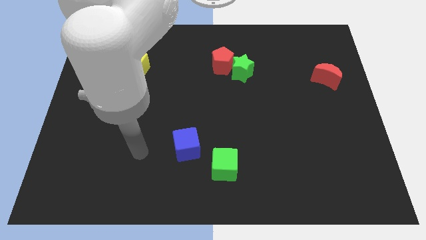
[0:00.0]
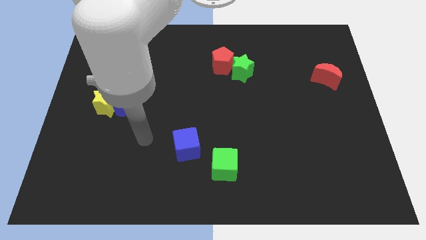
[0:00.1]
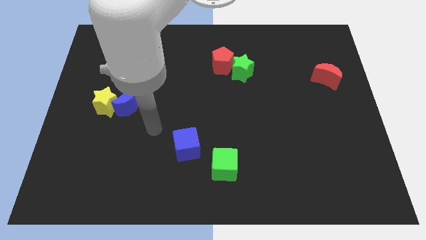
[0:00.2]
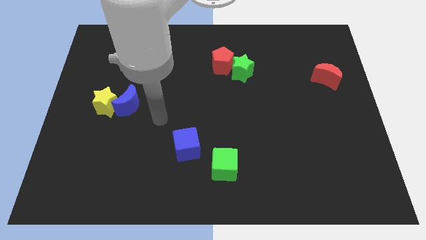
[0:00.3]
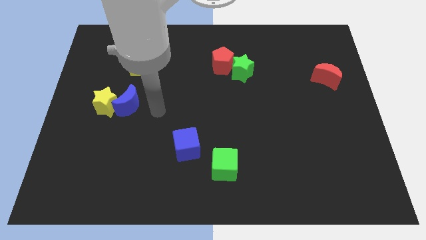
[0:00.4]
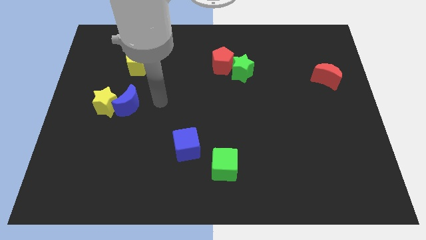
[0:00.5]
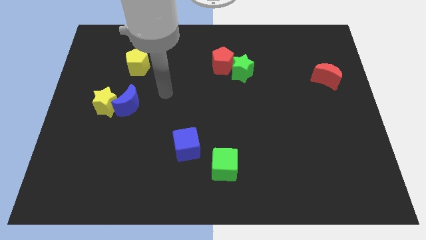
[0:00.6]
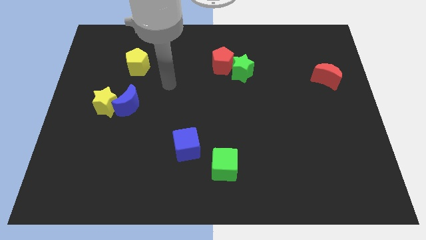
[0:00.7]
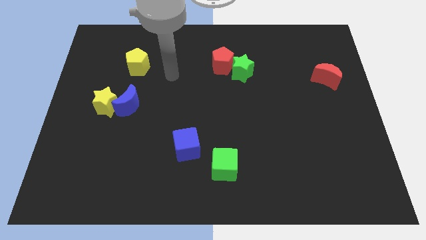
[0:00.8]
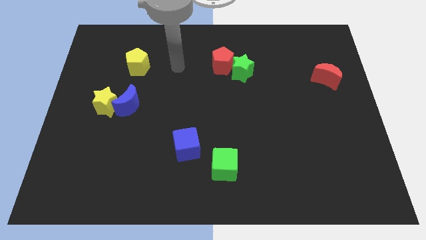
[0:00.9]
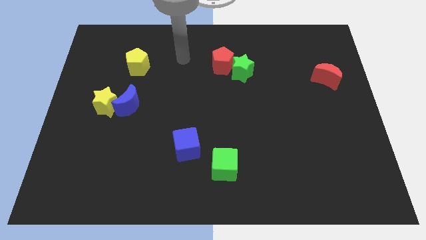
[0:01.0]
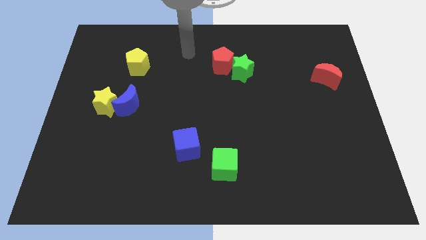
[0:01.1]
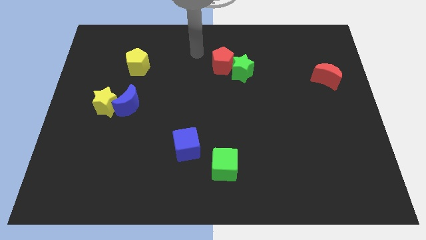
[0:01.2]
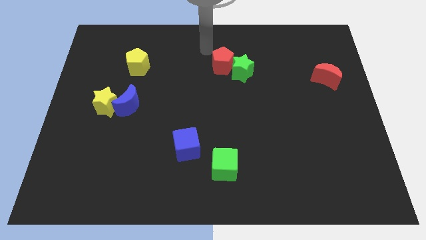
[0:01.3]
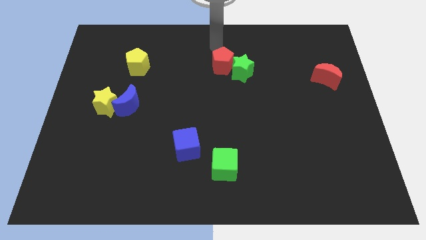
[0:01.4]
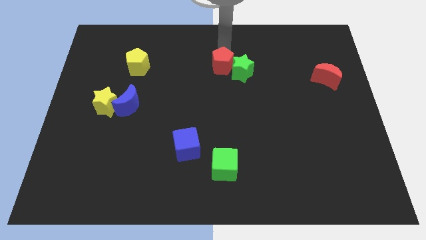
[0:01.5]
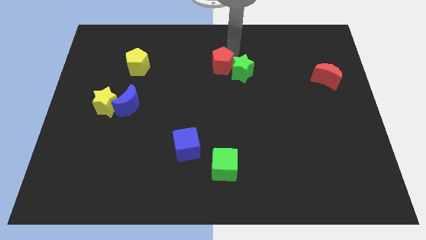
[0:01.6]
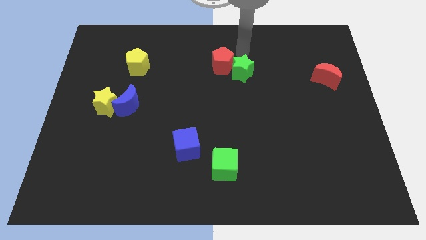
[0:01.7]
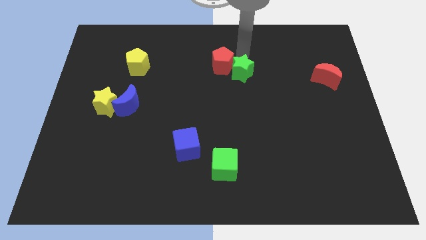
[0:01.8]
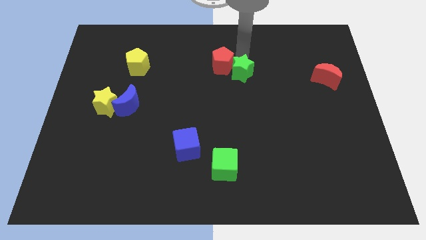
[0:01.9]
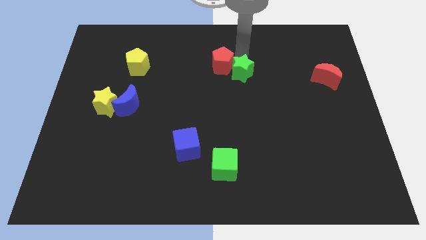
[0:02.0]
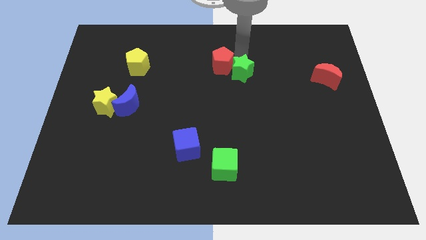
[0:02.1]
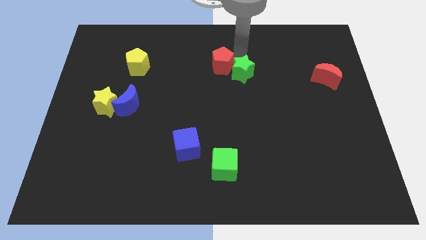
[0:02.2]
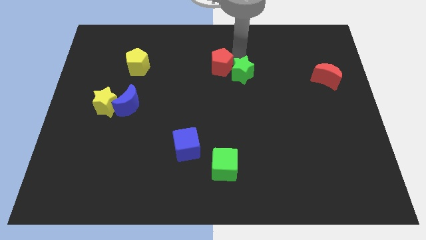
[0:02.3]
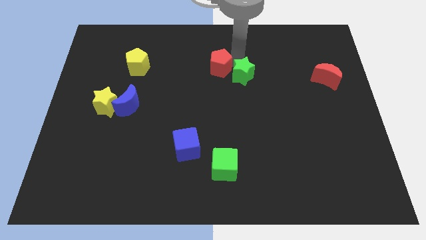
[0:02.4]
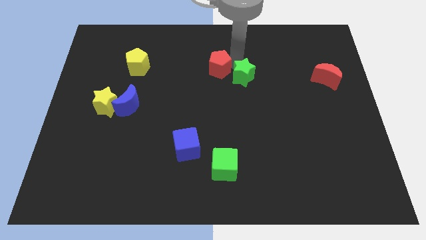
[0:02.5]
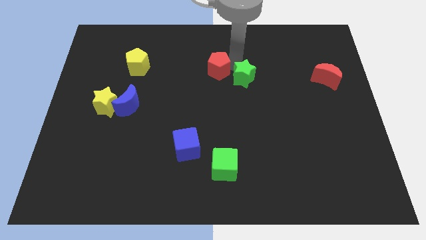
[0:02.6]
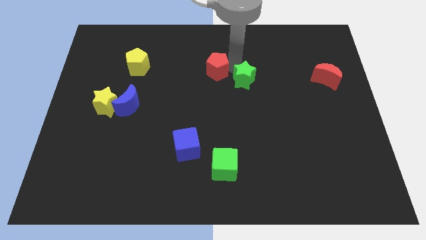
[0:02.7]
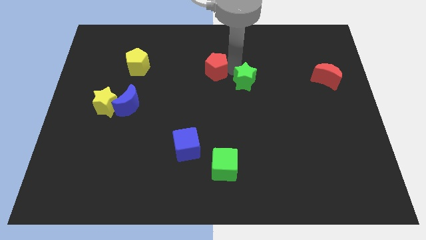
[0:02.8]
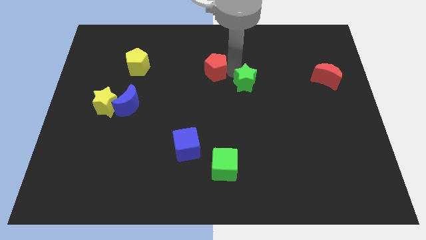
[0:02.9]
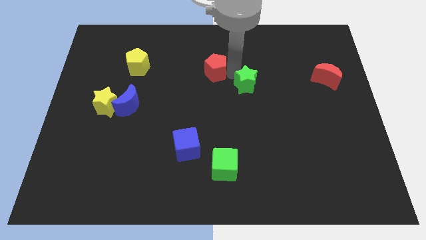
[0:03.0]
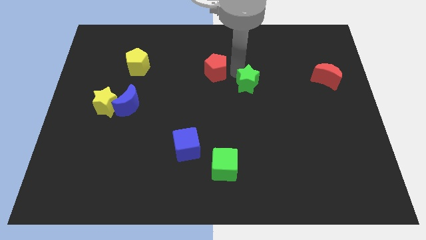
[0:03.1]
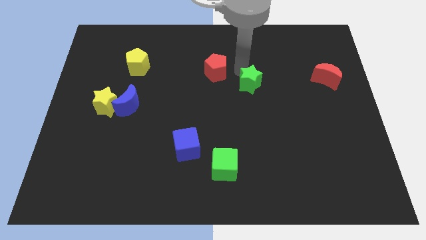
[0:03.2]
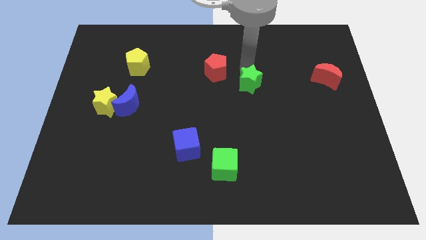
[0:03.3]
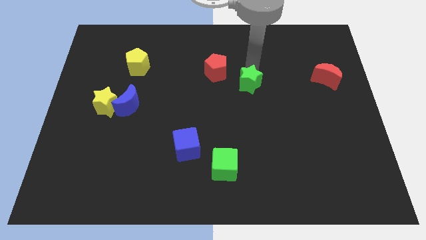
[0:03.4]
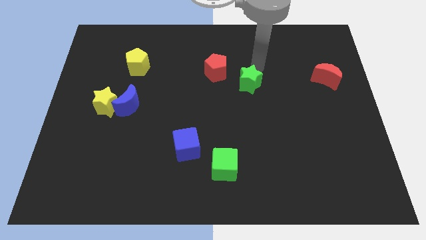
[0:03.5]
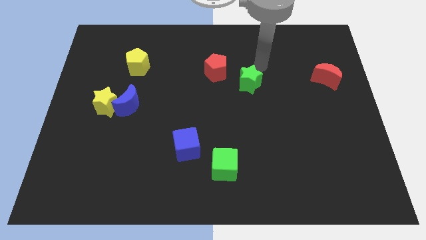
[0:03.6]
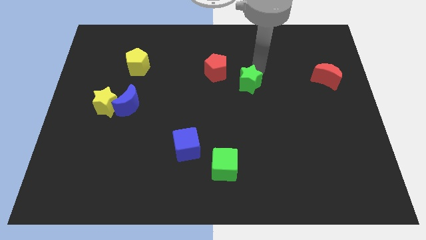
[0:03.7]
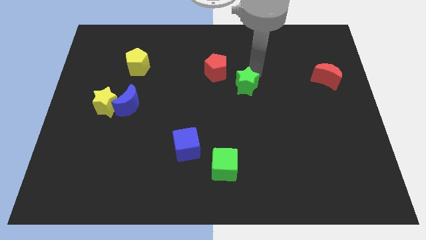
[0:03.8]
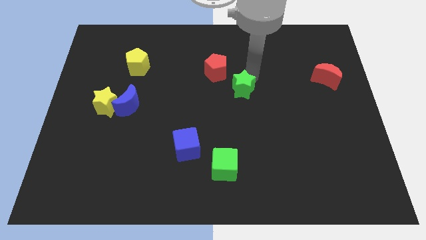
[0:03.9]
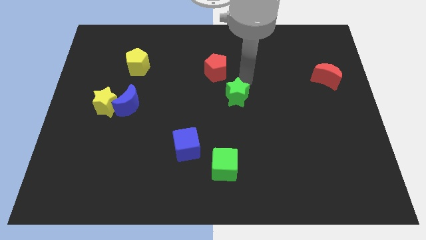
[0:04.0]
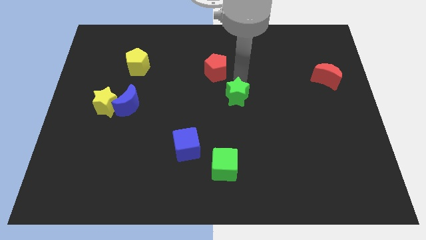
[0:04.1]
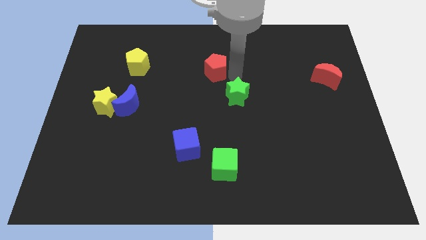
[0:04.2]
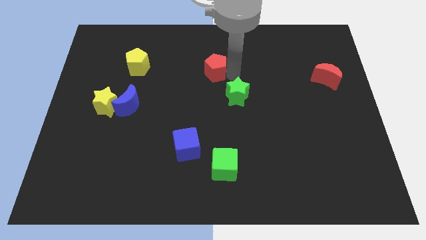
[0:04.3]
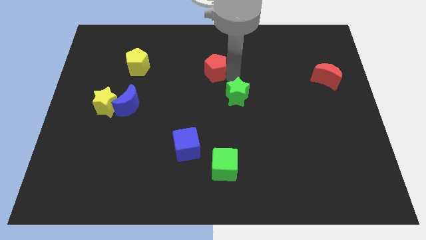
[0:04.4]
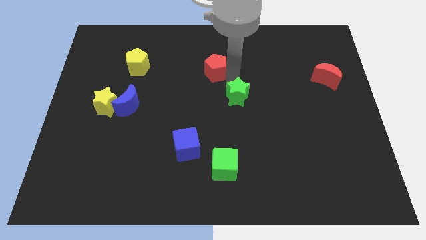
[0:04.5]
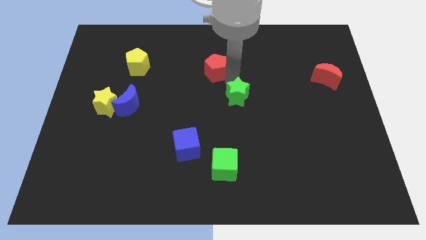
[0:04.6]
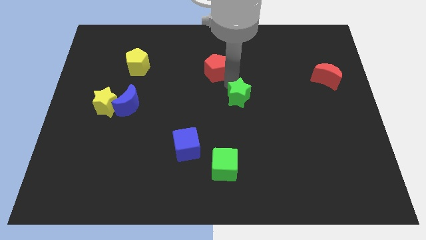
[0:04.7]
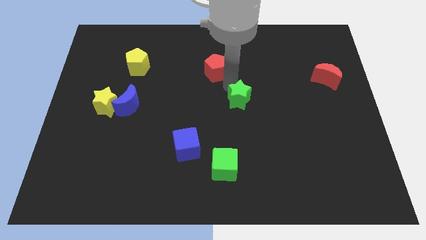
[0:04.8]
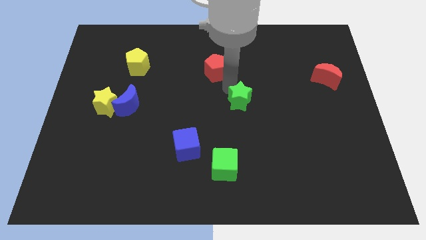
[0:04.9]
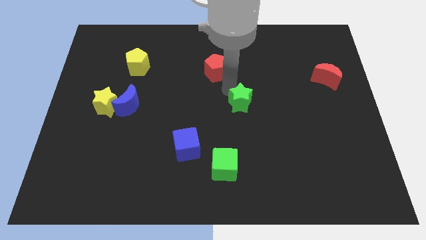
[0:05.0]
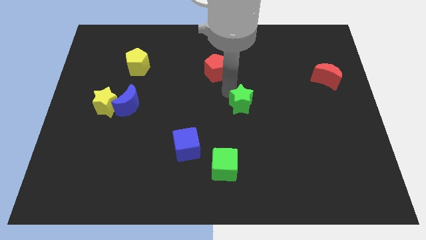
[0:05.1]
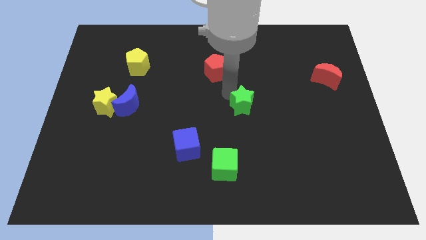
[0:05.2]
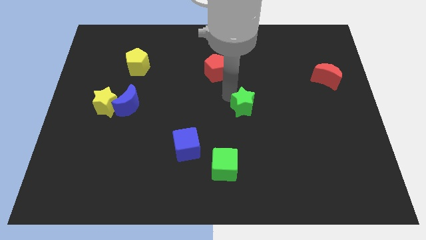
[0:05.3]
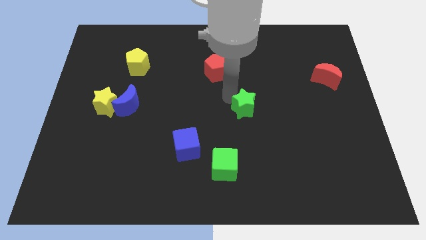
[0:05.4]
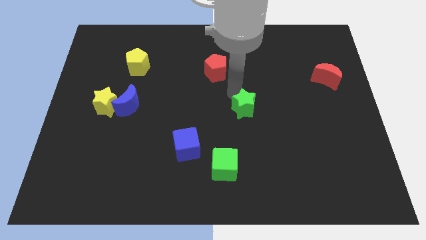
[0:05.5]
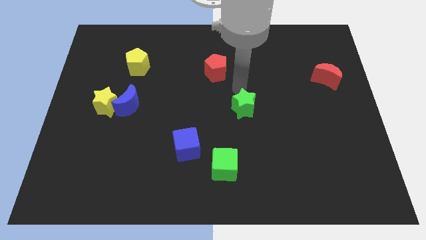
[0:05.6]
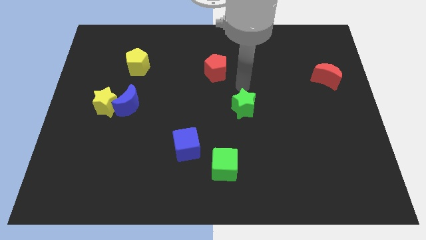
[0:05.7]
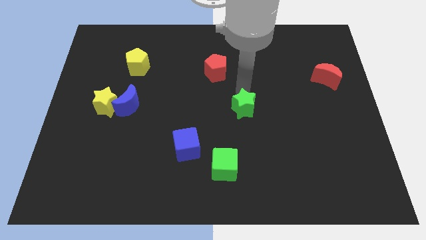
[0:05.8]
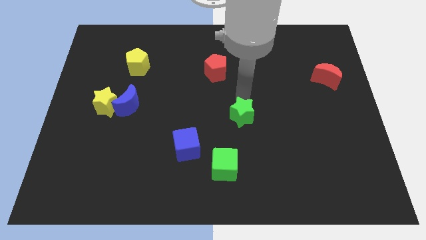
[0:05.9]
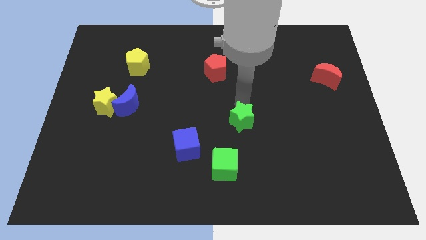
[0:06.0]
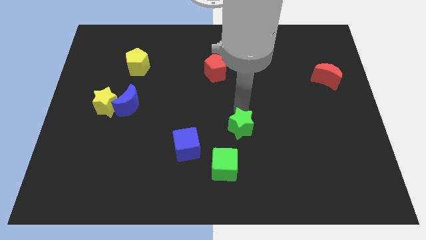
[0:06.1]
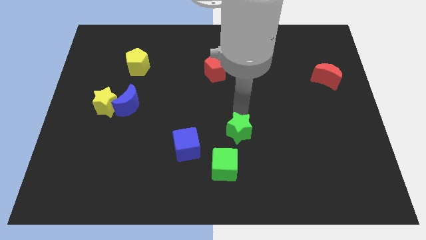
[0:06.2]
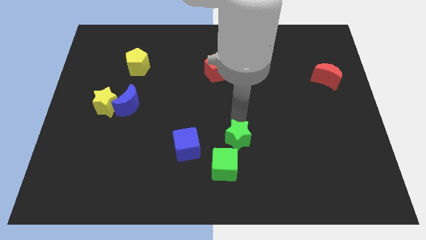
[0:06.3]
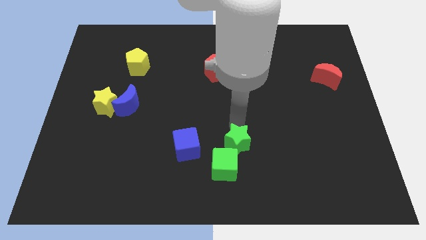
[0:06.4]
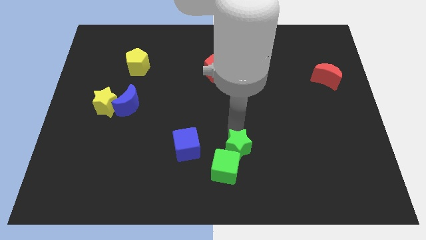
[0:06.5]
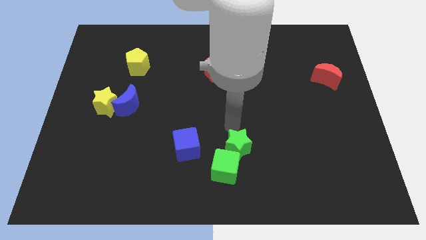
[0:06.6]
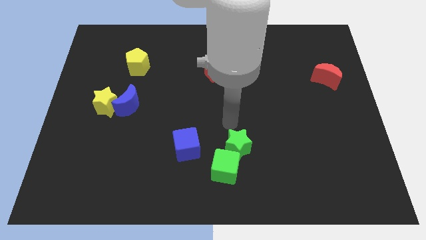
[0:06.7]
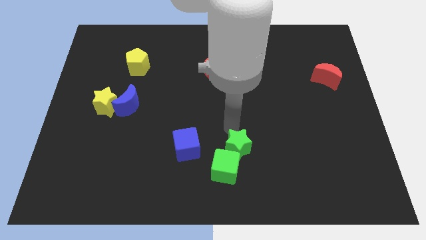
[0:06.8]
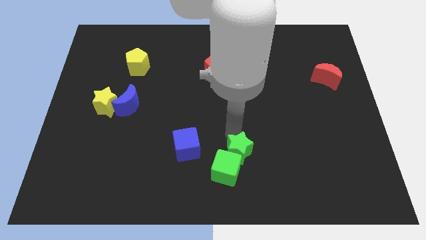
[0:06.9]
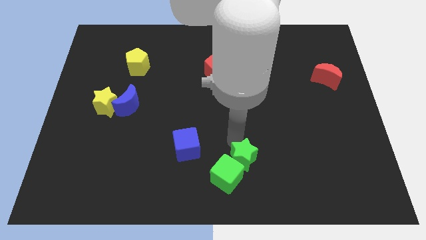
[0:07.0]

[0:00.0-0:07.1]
put the green star to the bottom
